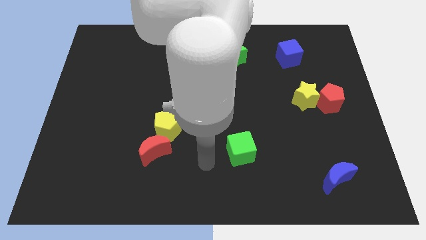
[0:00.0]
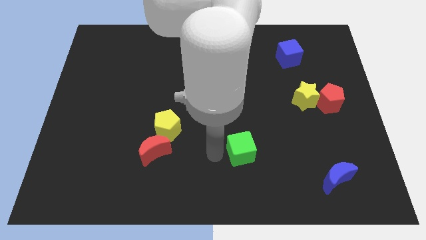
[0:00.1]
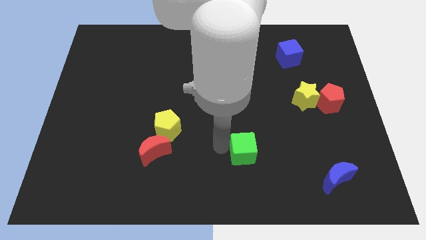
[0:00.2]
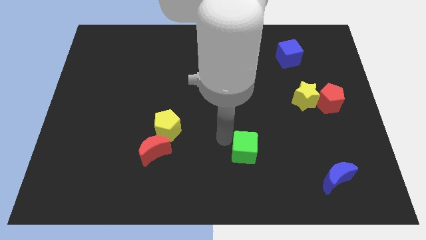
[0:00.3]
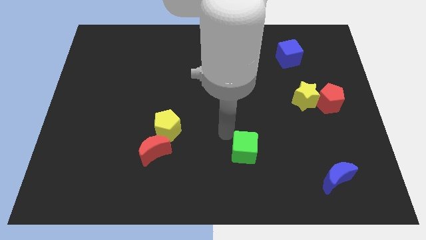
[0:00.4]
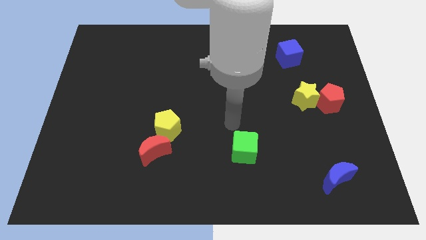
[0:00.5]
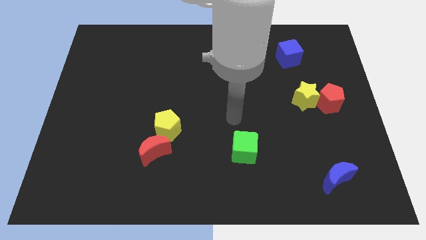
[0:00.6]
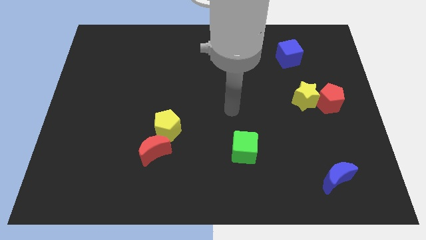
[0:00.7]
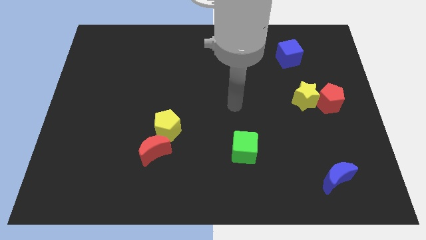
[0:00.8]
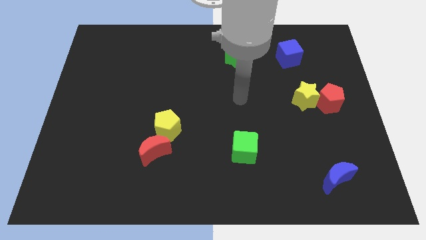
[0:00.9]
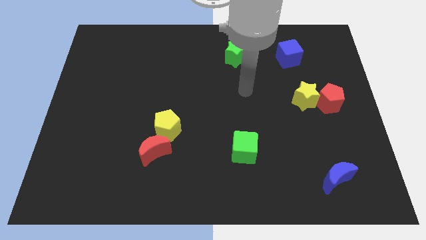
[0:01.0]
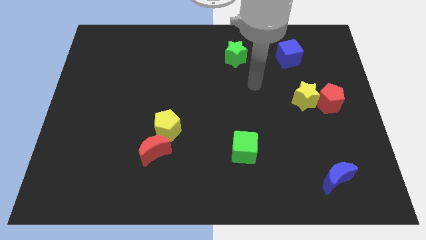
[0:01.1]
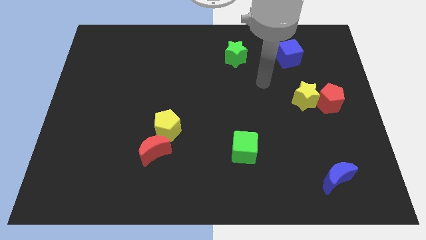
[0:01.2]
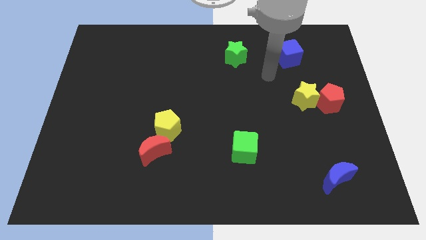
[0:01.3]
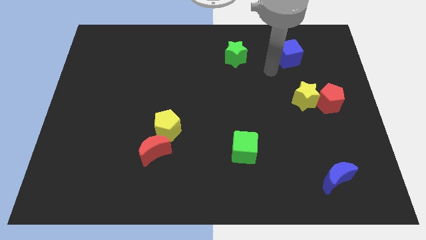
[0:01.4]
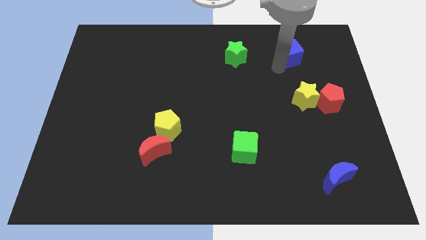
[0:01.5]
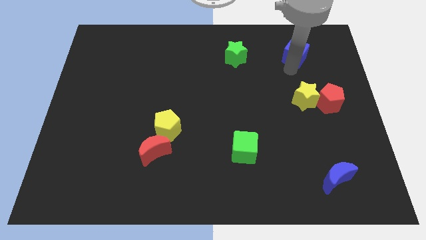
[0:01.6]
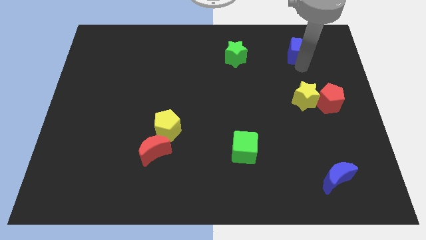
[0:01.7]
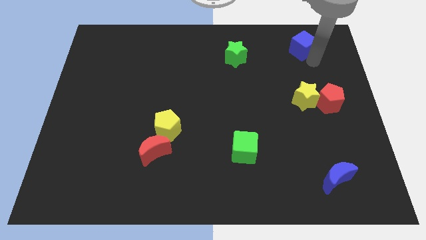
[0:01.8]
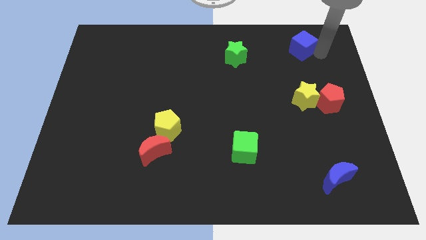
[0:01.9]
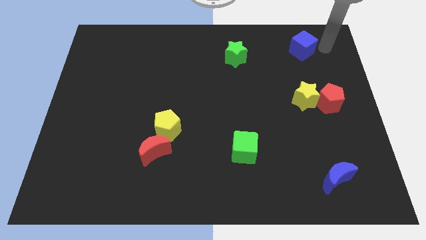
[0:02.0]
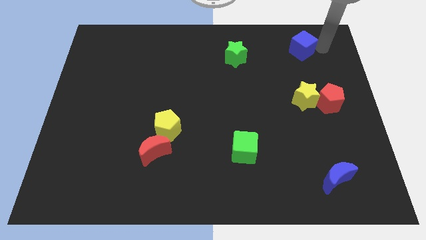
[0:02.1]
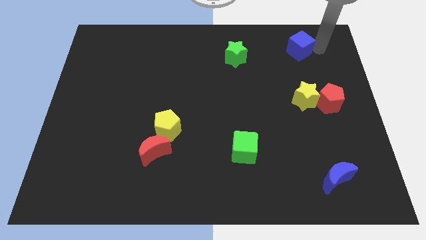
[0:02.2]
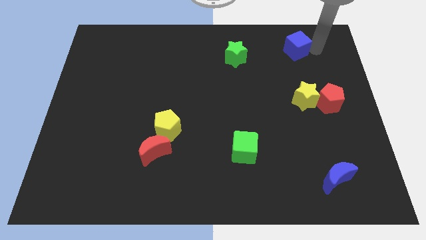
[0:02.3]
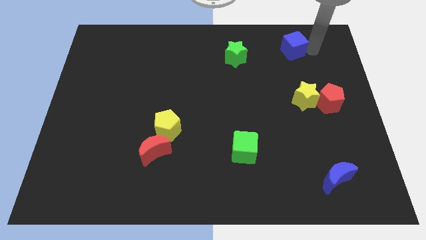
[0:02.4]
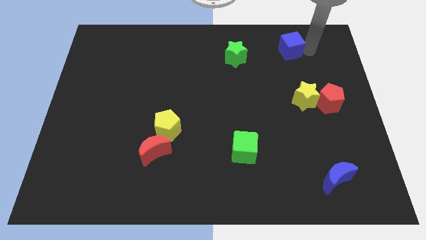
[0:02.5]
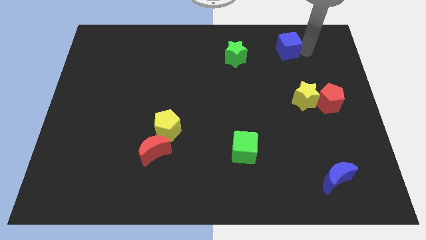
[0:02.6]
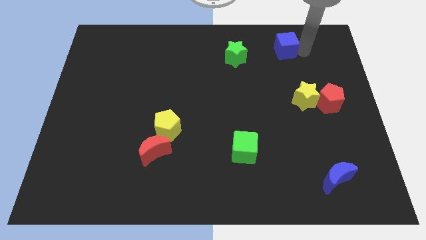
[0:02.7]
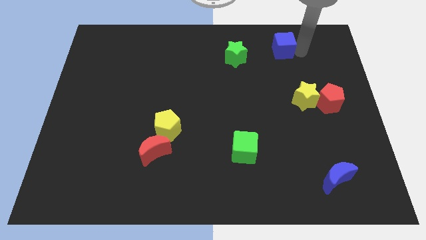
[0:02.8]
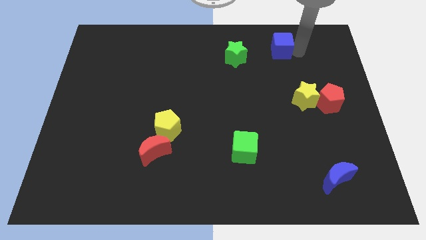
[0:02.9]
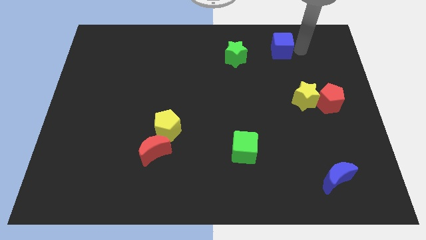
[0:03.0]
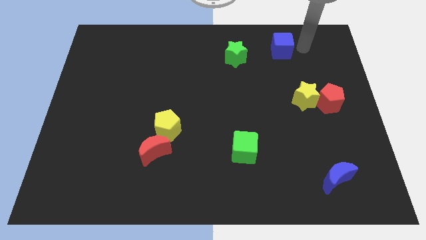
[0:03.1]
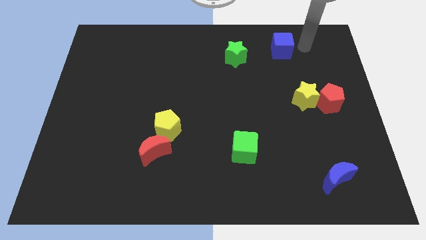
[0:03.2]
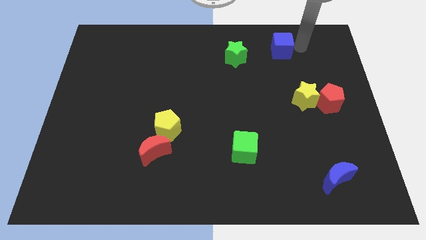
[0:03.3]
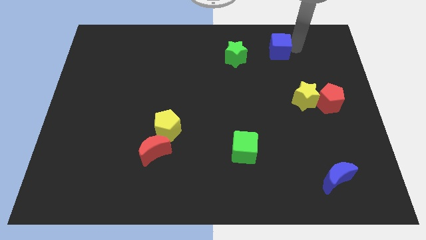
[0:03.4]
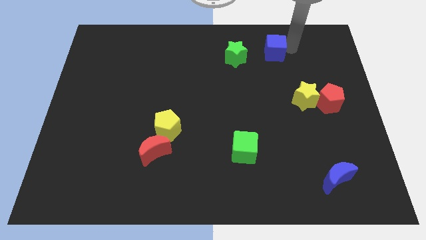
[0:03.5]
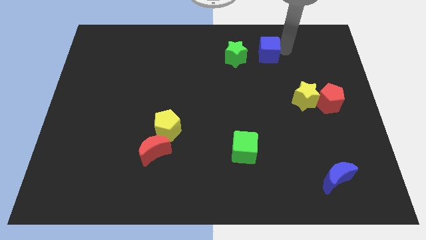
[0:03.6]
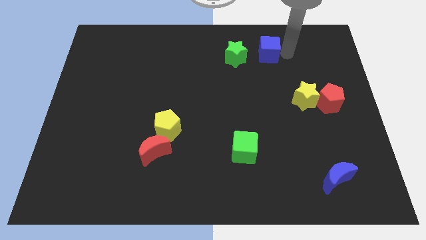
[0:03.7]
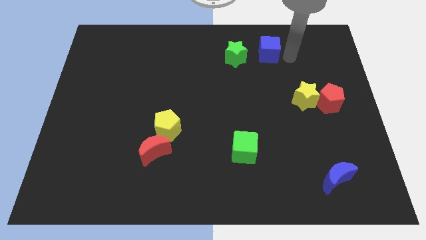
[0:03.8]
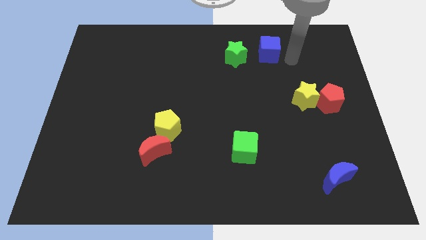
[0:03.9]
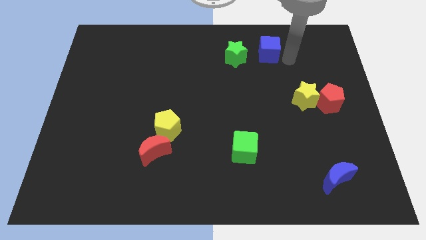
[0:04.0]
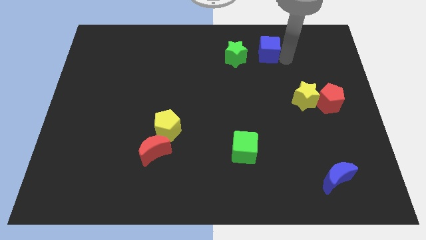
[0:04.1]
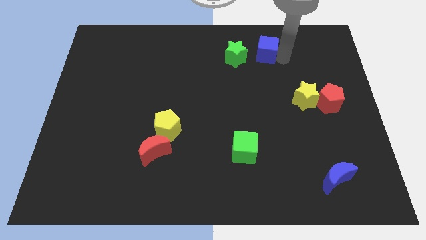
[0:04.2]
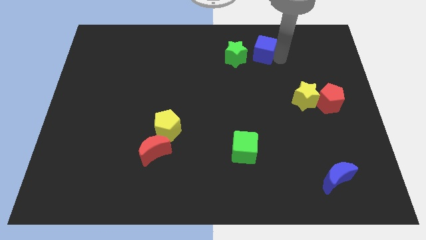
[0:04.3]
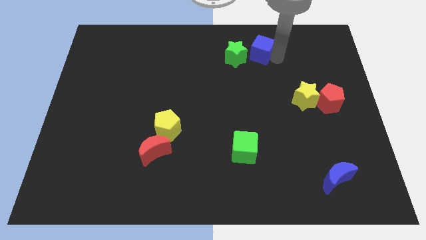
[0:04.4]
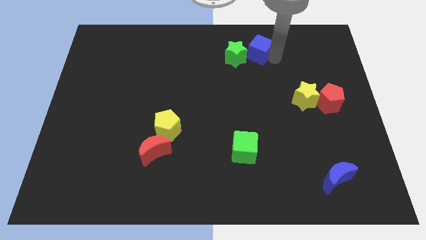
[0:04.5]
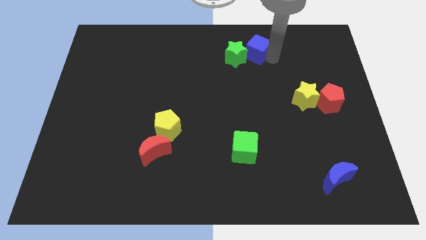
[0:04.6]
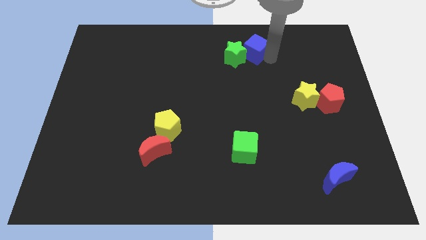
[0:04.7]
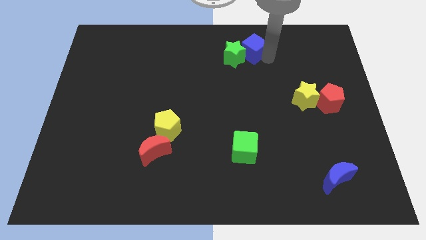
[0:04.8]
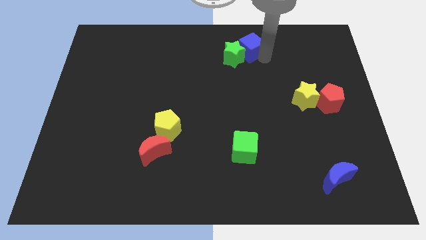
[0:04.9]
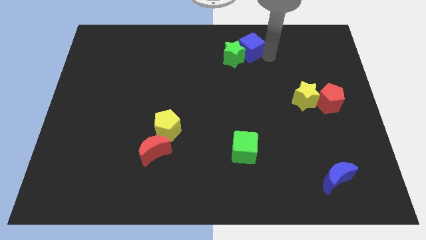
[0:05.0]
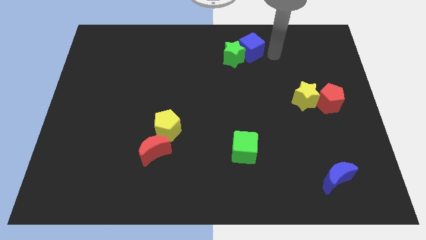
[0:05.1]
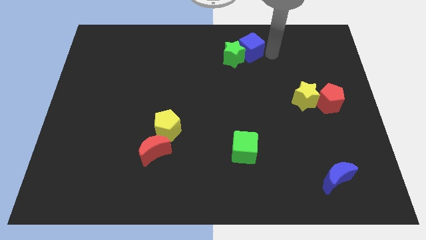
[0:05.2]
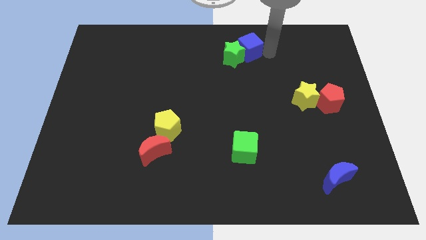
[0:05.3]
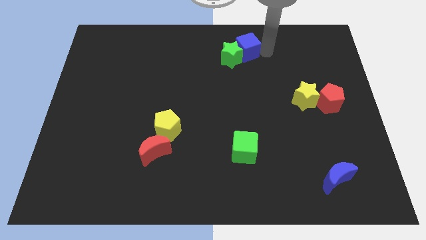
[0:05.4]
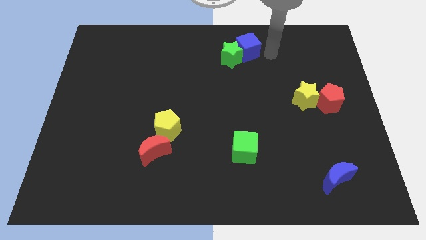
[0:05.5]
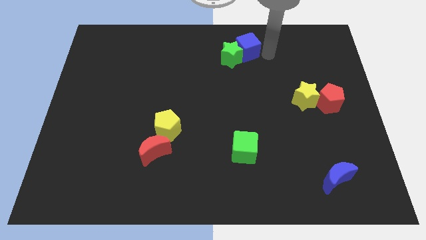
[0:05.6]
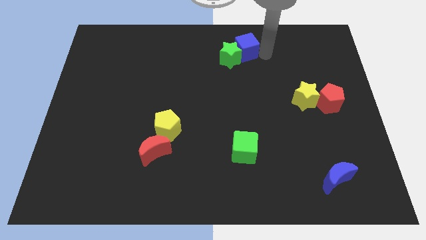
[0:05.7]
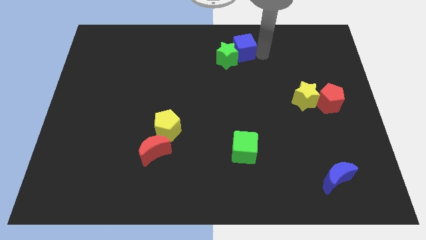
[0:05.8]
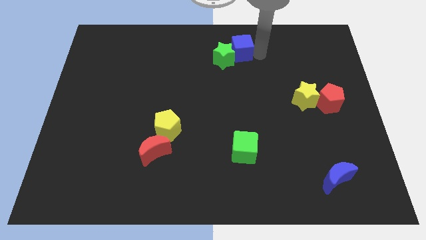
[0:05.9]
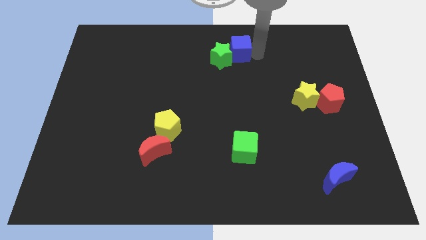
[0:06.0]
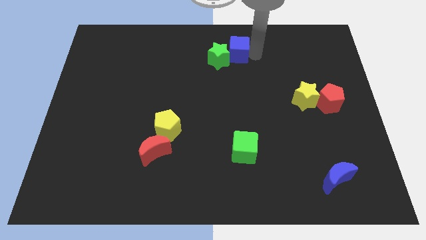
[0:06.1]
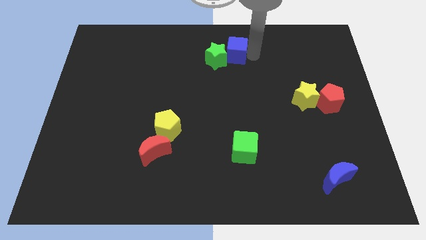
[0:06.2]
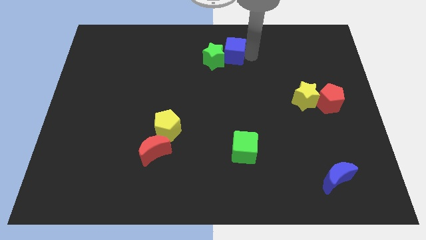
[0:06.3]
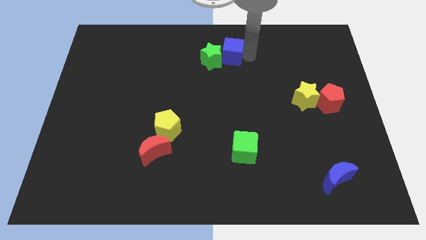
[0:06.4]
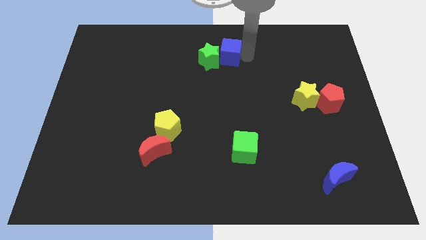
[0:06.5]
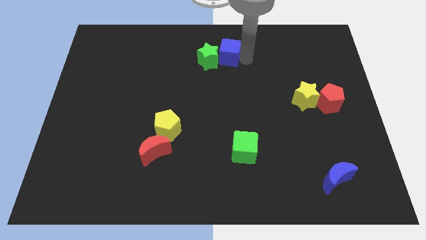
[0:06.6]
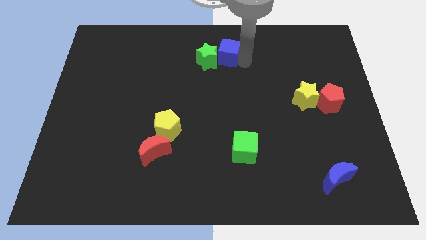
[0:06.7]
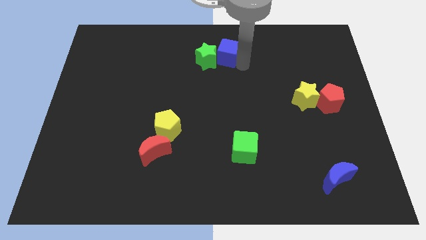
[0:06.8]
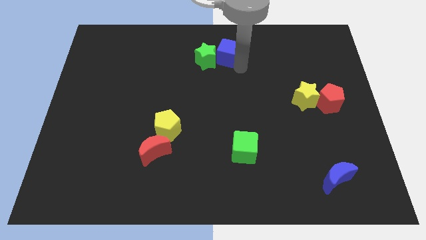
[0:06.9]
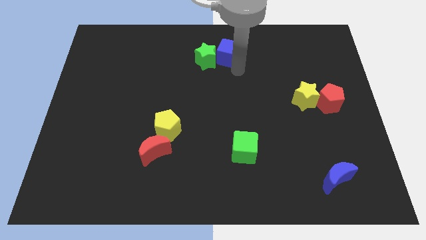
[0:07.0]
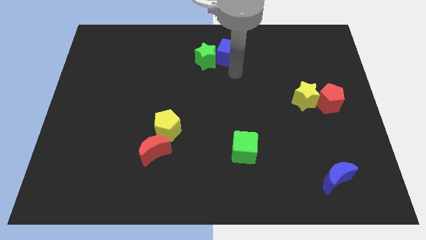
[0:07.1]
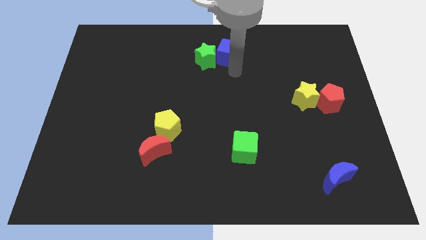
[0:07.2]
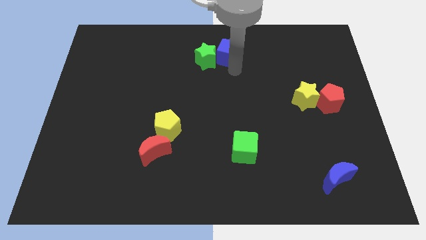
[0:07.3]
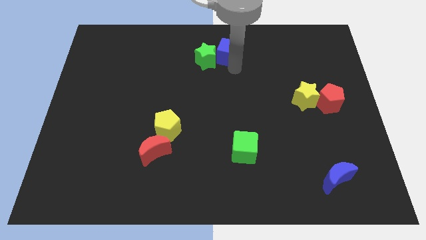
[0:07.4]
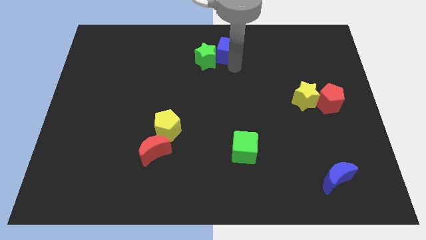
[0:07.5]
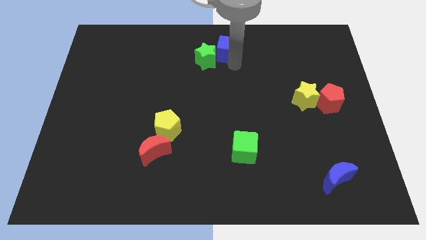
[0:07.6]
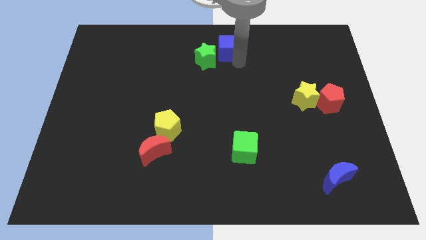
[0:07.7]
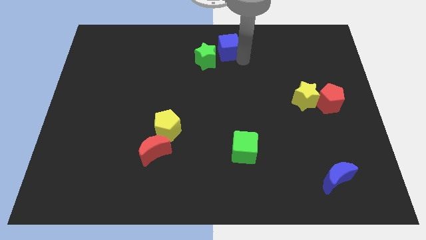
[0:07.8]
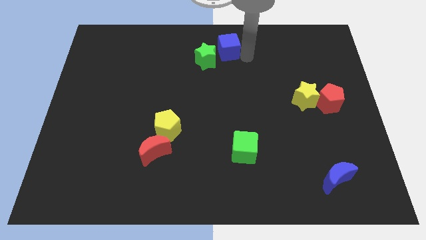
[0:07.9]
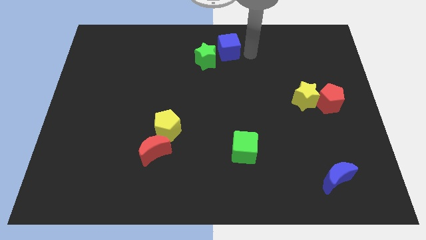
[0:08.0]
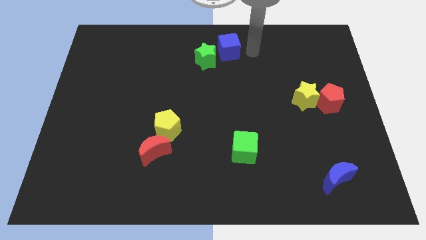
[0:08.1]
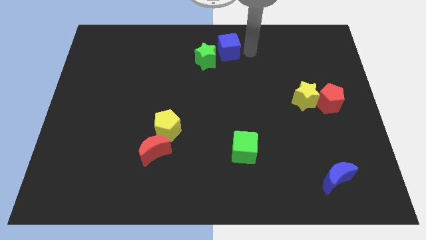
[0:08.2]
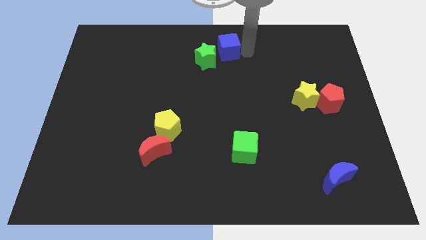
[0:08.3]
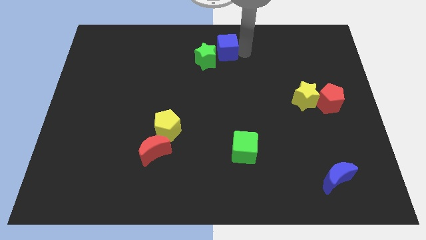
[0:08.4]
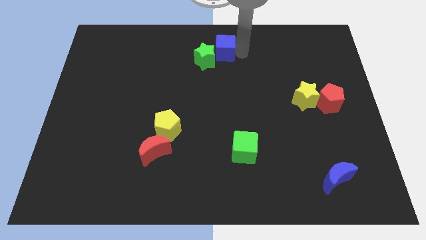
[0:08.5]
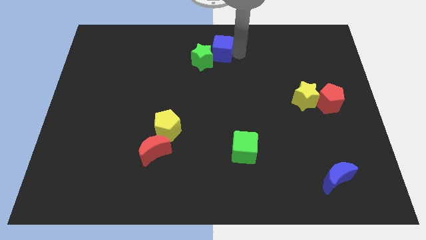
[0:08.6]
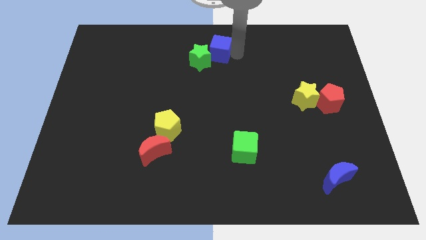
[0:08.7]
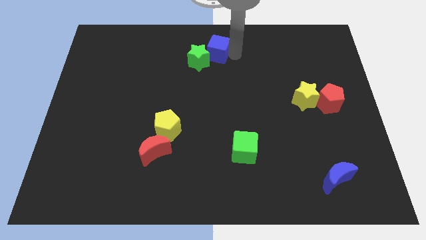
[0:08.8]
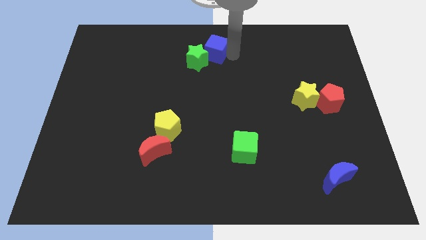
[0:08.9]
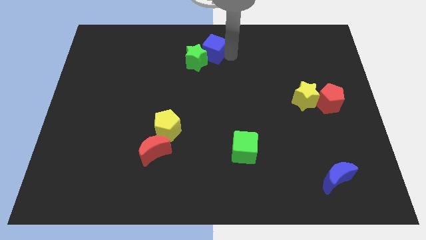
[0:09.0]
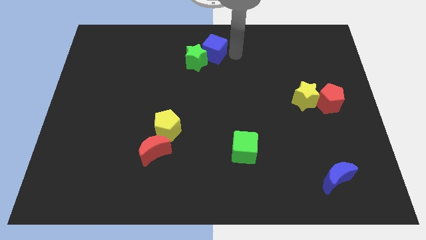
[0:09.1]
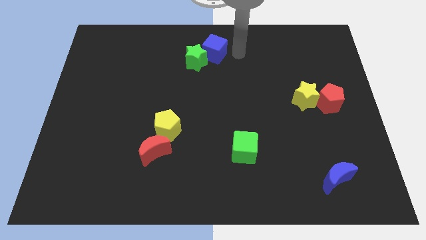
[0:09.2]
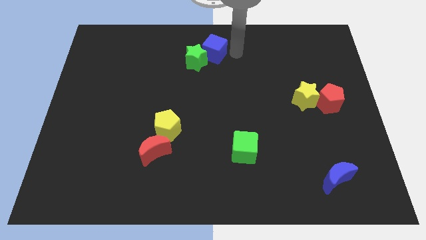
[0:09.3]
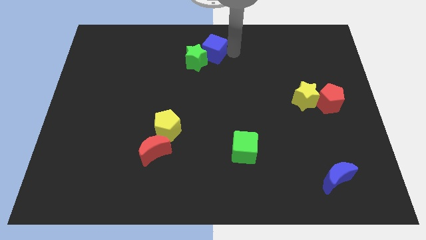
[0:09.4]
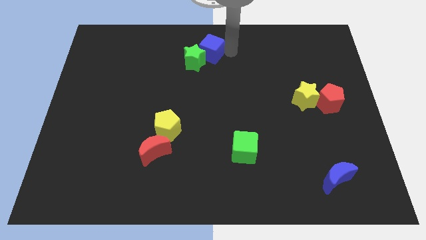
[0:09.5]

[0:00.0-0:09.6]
push the blue cube to the left
